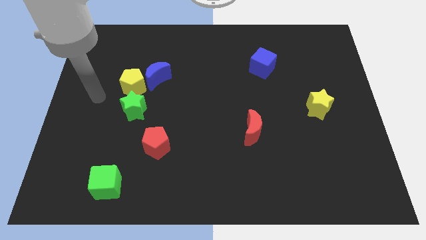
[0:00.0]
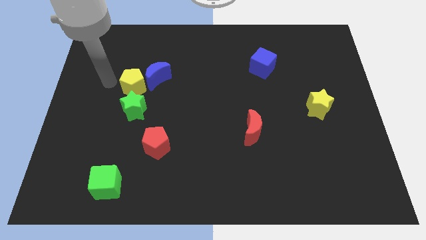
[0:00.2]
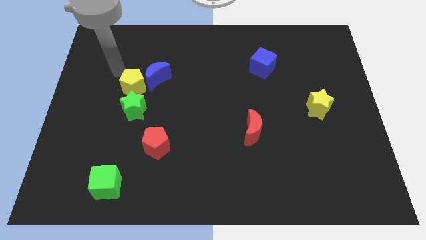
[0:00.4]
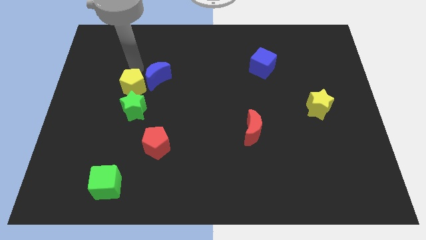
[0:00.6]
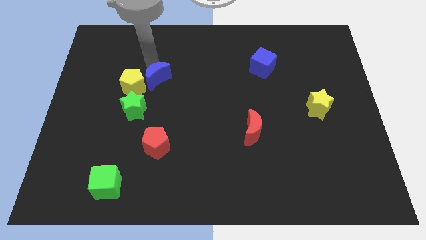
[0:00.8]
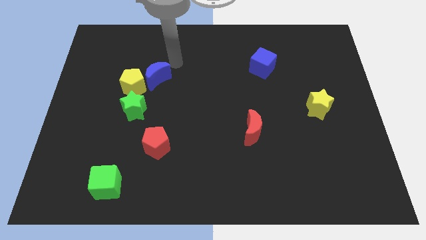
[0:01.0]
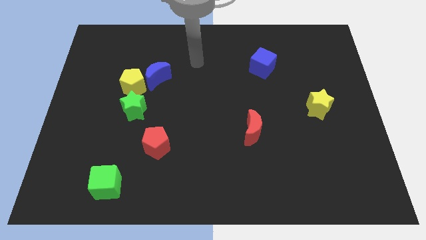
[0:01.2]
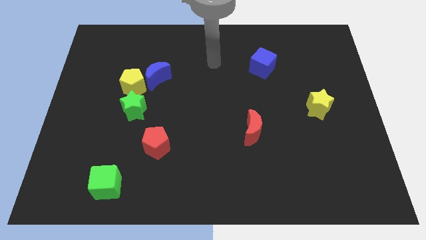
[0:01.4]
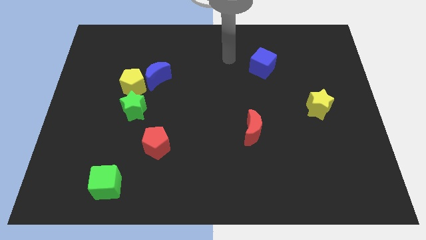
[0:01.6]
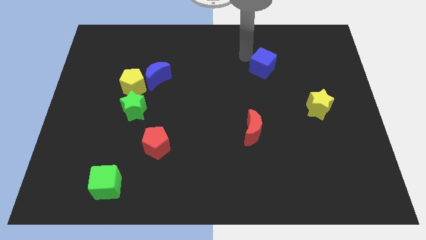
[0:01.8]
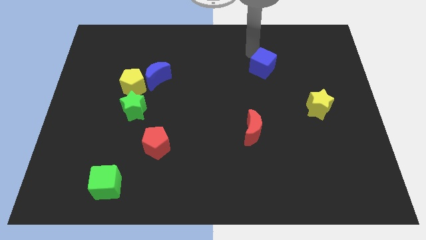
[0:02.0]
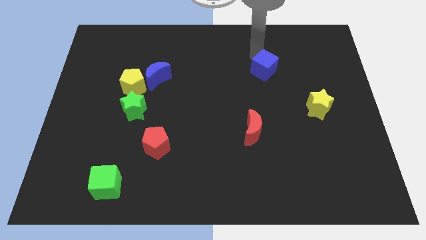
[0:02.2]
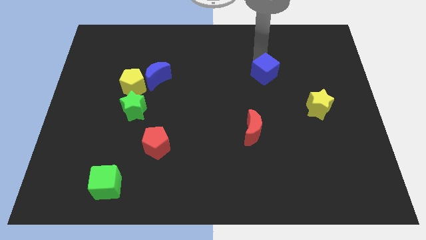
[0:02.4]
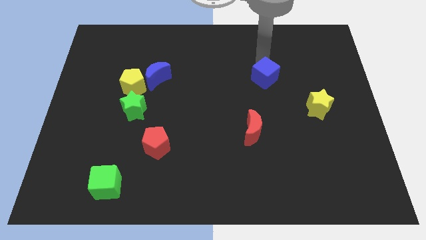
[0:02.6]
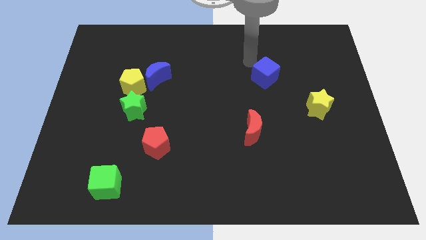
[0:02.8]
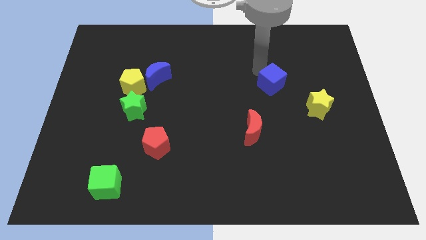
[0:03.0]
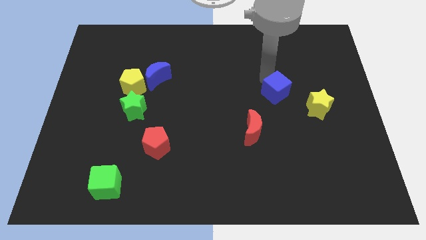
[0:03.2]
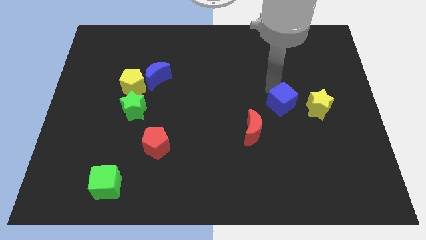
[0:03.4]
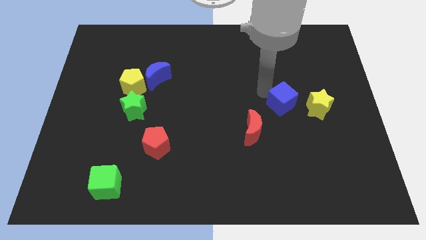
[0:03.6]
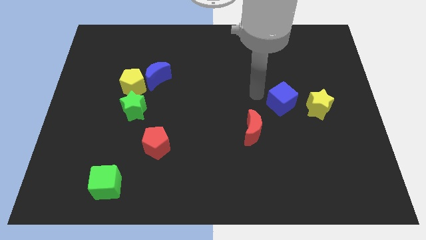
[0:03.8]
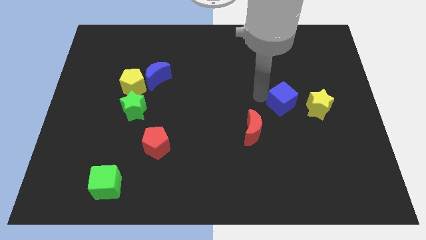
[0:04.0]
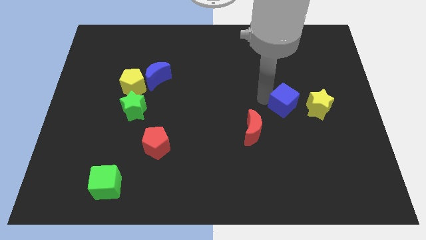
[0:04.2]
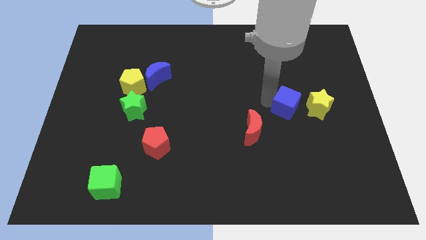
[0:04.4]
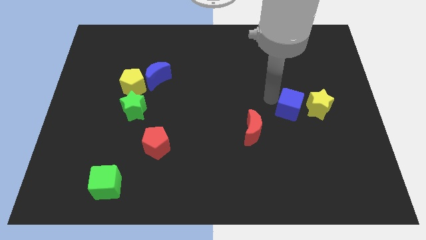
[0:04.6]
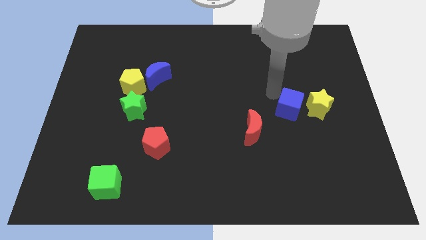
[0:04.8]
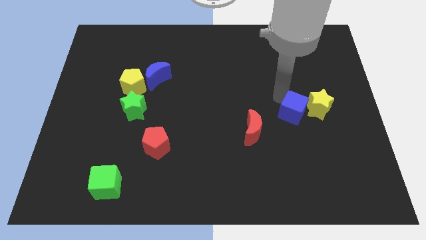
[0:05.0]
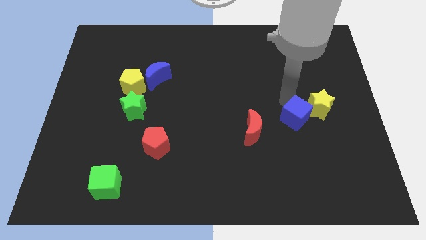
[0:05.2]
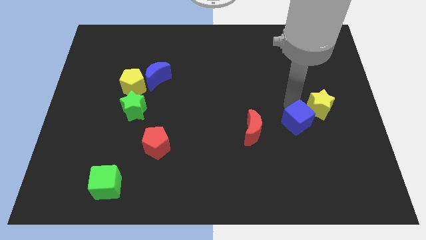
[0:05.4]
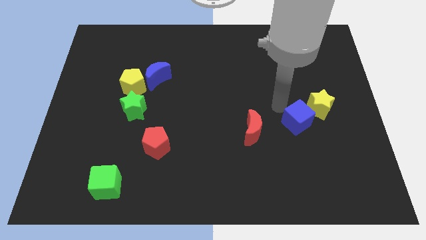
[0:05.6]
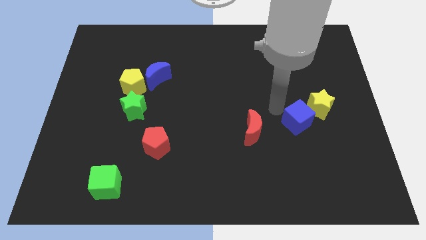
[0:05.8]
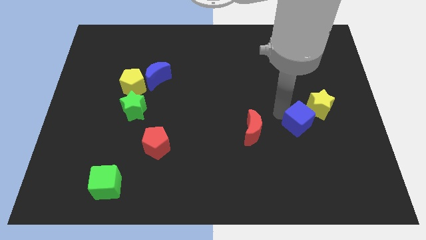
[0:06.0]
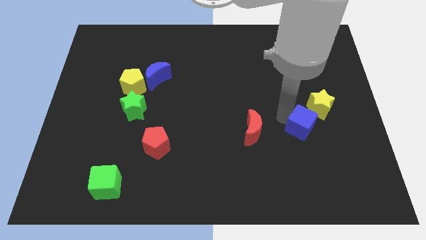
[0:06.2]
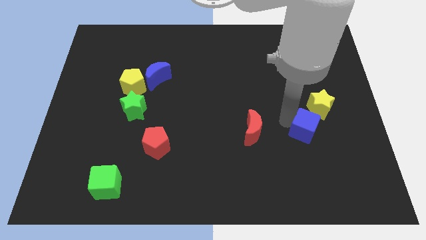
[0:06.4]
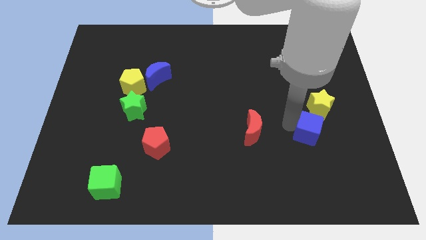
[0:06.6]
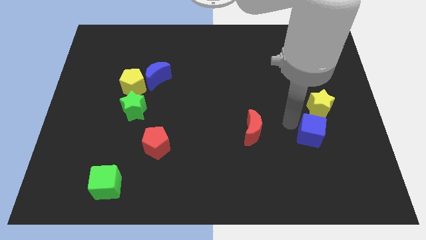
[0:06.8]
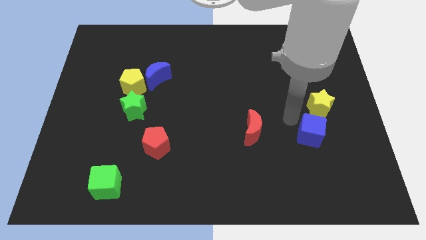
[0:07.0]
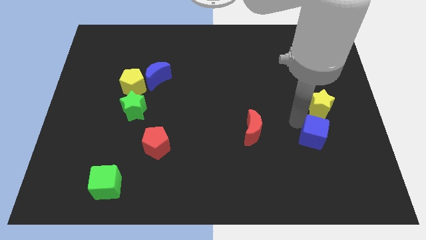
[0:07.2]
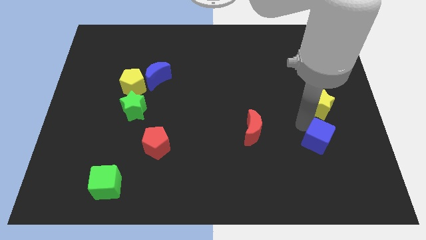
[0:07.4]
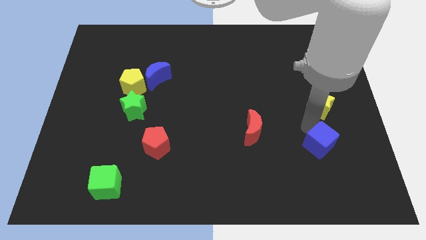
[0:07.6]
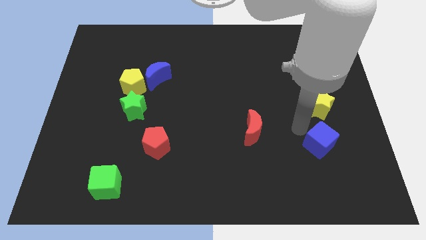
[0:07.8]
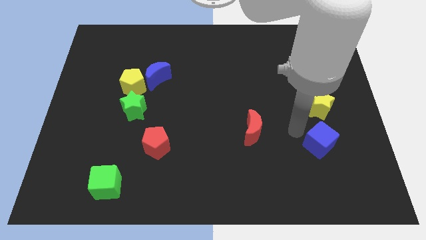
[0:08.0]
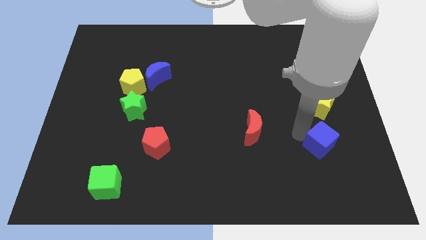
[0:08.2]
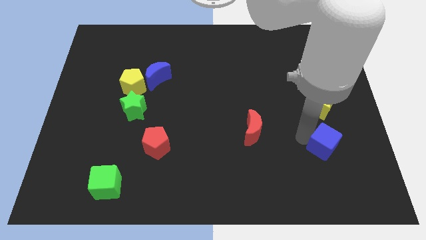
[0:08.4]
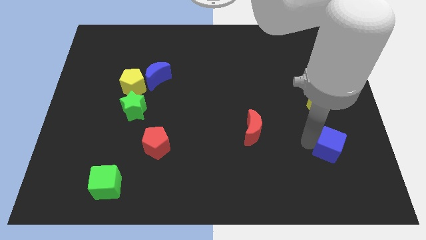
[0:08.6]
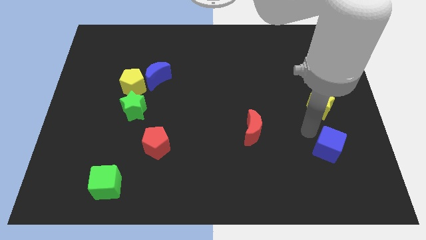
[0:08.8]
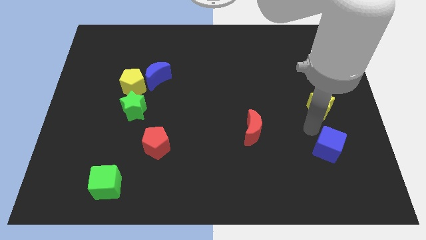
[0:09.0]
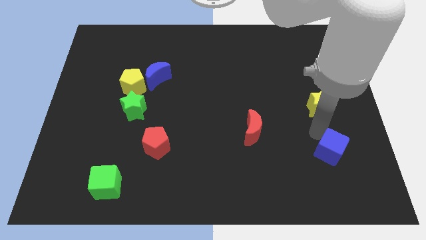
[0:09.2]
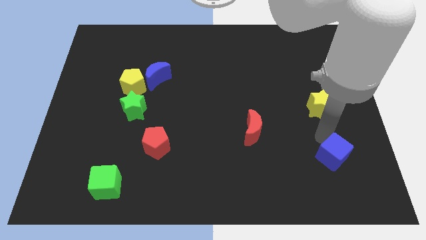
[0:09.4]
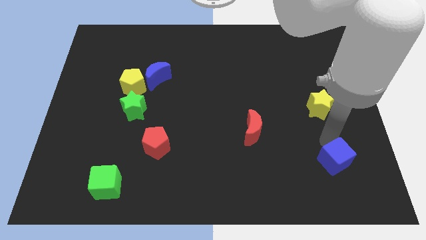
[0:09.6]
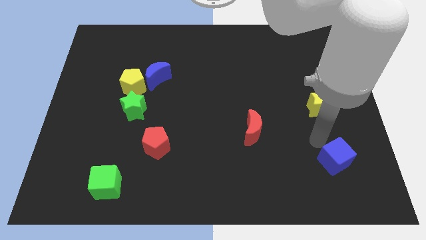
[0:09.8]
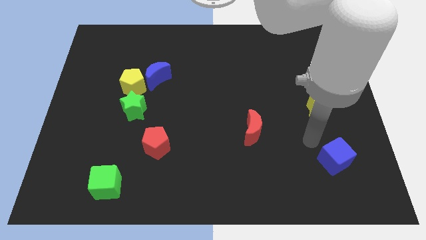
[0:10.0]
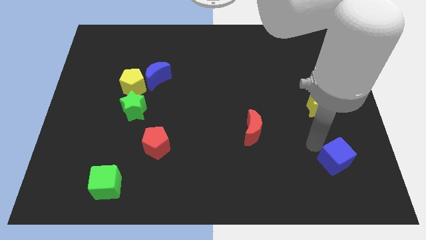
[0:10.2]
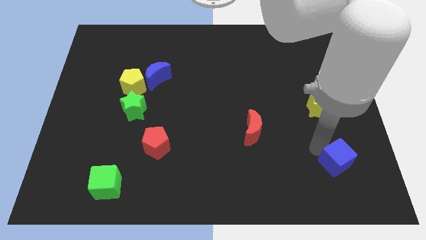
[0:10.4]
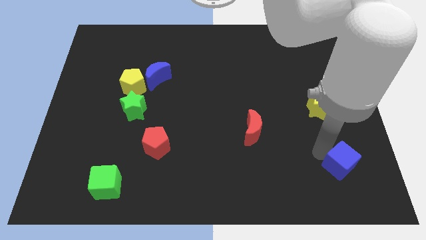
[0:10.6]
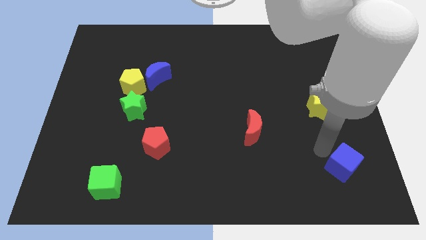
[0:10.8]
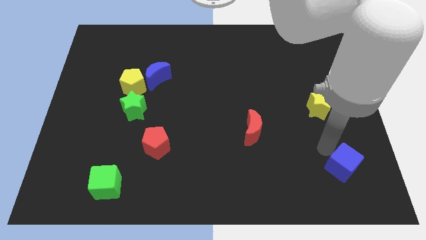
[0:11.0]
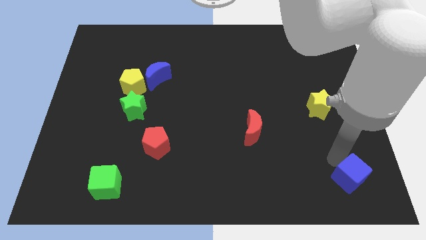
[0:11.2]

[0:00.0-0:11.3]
push the blue cube to the bottom right of the board

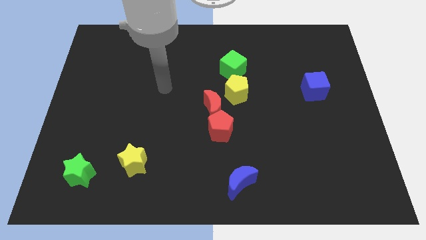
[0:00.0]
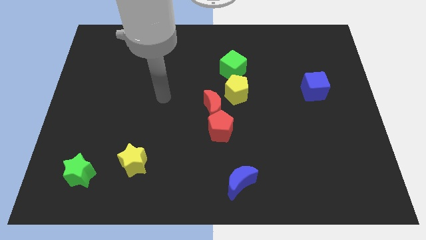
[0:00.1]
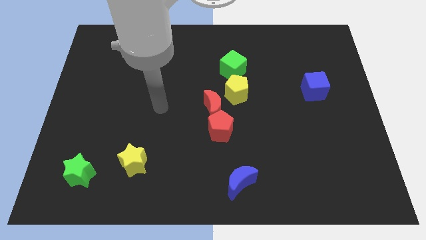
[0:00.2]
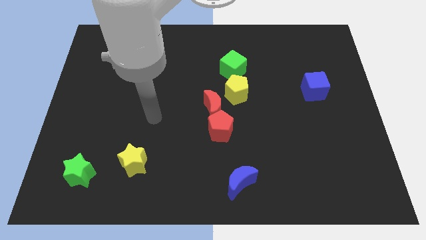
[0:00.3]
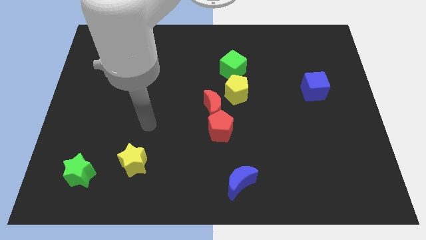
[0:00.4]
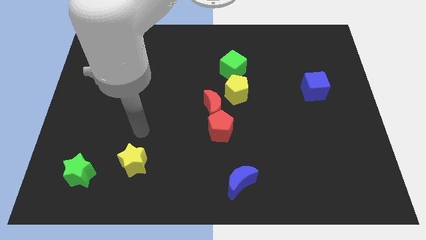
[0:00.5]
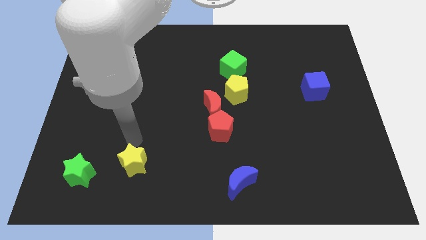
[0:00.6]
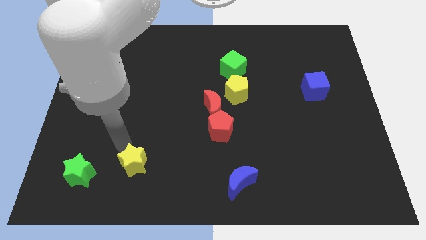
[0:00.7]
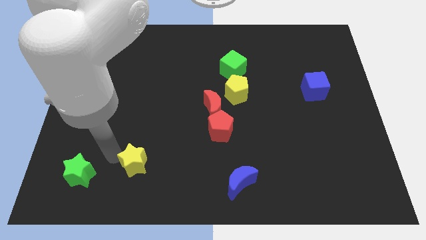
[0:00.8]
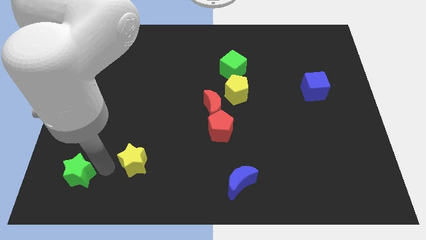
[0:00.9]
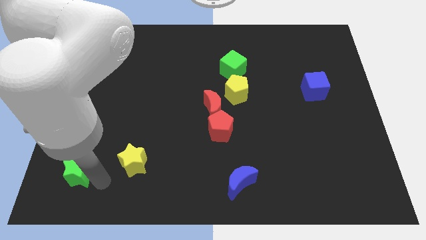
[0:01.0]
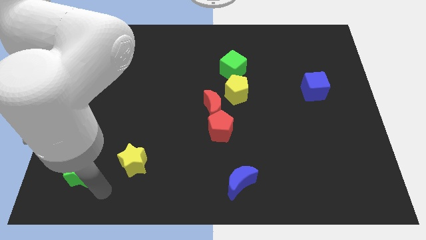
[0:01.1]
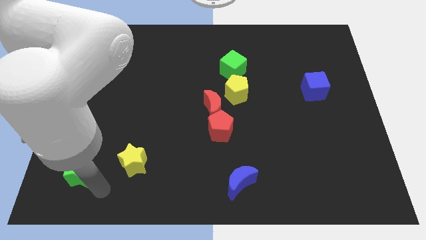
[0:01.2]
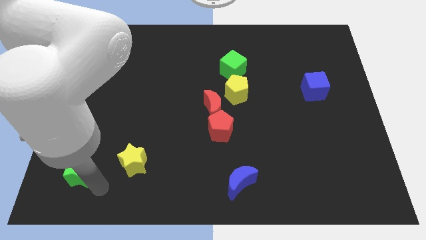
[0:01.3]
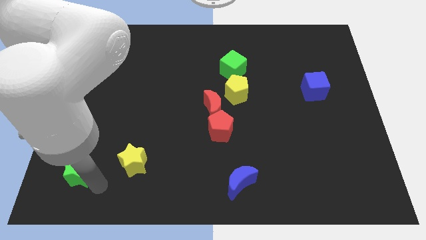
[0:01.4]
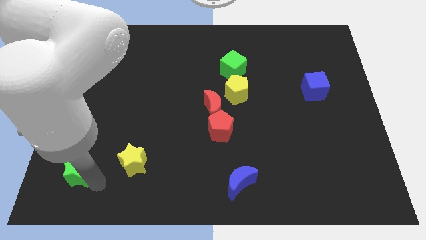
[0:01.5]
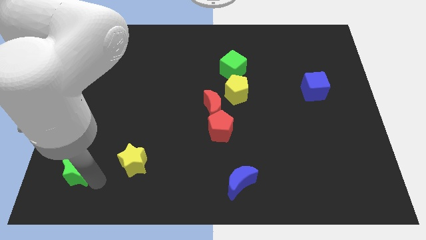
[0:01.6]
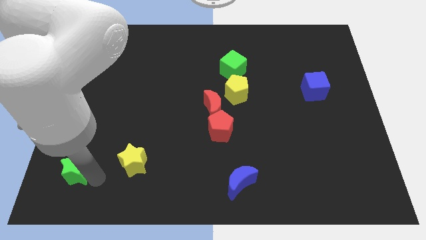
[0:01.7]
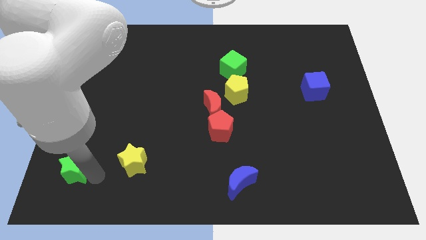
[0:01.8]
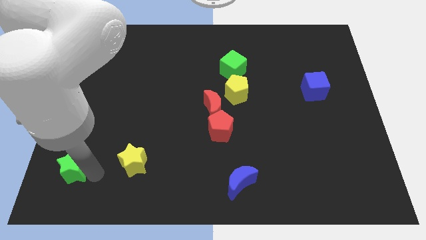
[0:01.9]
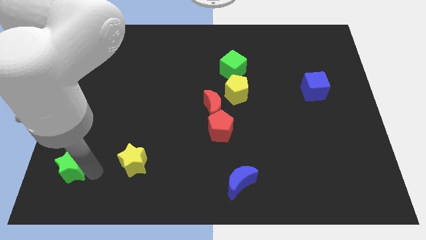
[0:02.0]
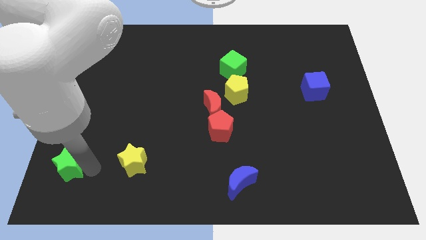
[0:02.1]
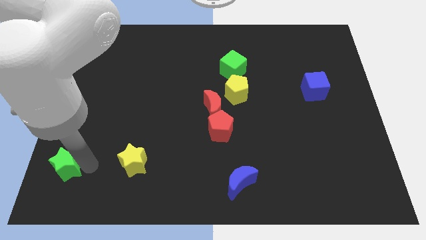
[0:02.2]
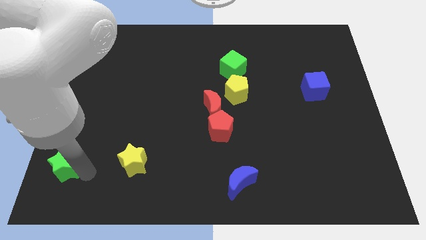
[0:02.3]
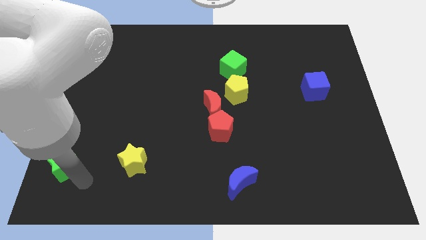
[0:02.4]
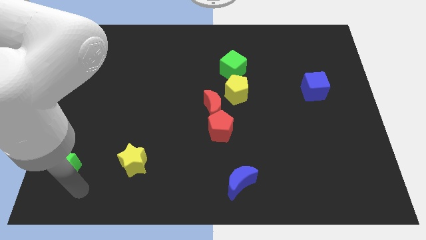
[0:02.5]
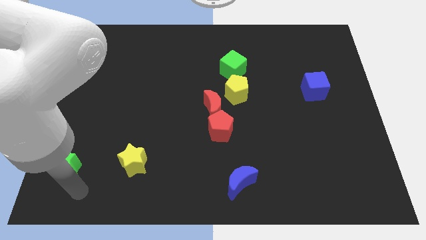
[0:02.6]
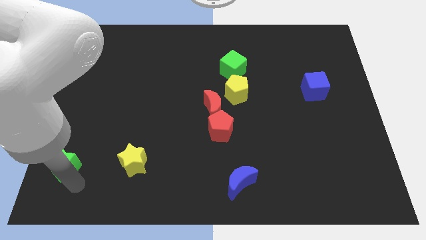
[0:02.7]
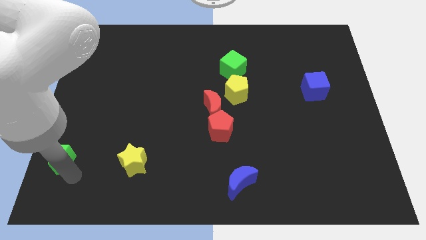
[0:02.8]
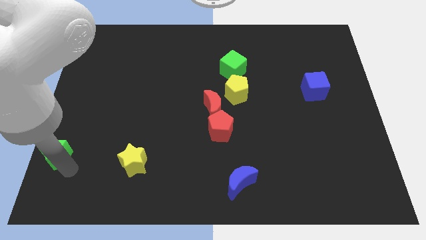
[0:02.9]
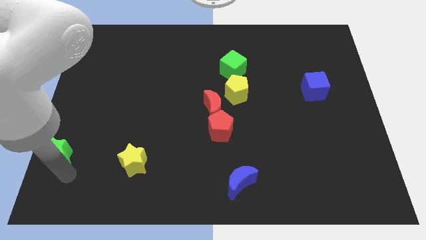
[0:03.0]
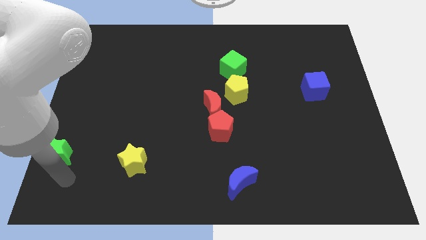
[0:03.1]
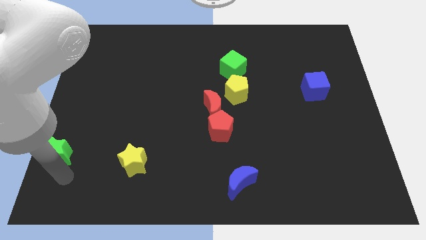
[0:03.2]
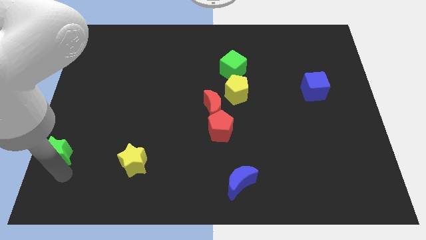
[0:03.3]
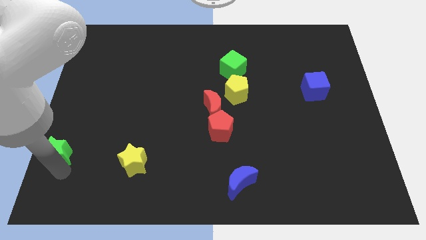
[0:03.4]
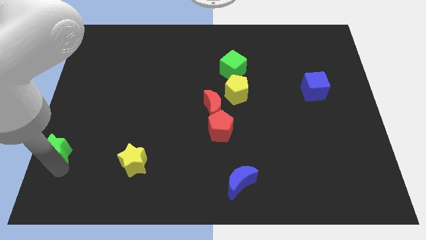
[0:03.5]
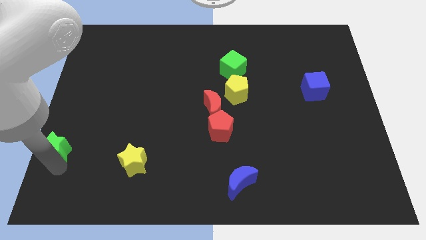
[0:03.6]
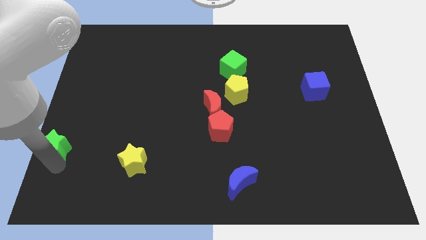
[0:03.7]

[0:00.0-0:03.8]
move the green star to the center left
